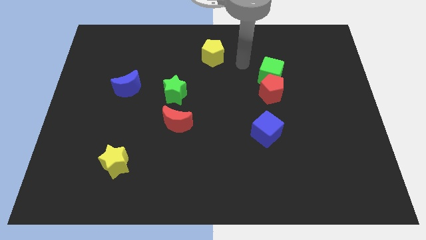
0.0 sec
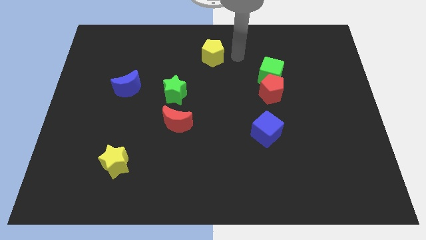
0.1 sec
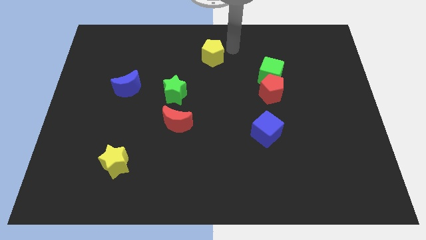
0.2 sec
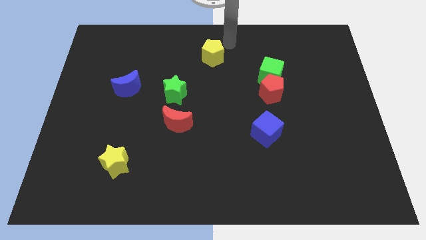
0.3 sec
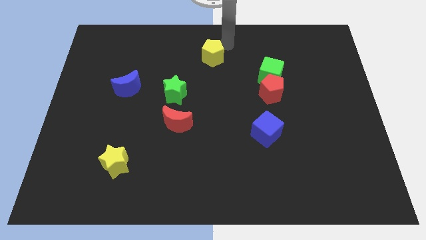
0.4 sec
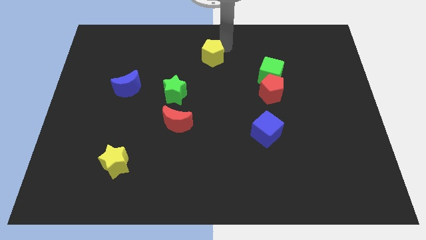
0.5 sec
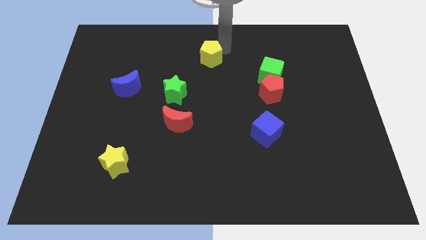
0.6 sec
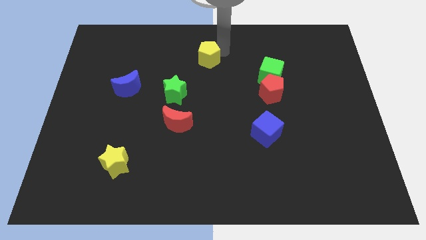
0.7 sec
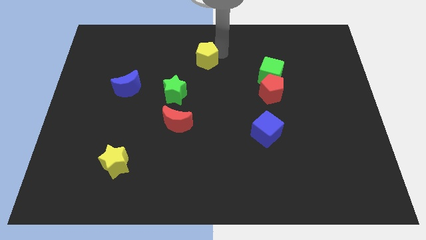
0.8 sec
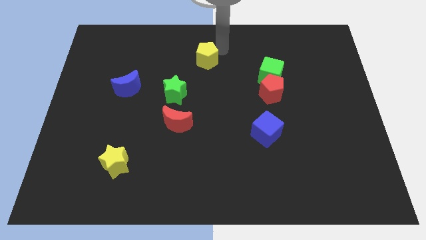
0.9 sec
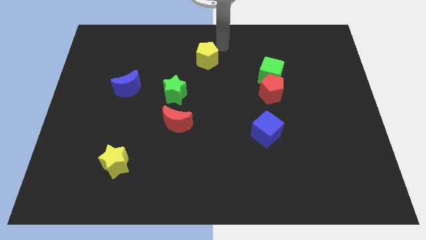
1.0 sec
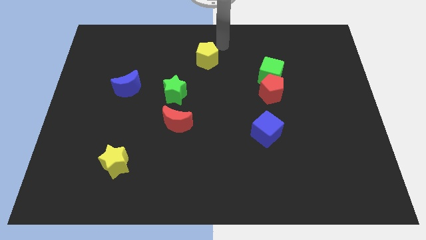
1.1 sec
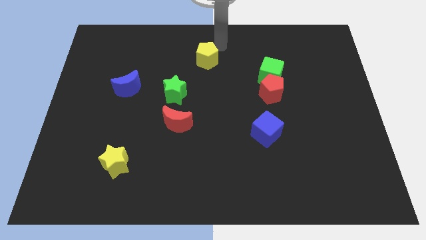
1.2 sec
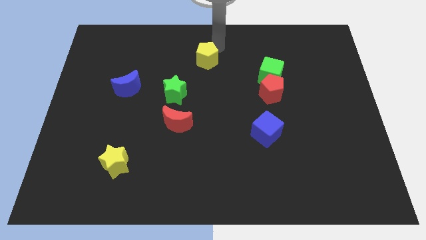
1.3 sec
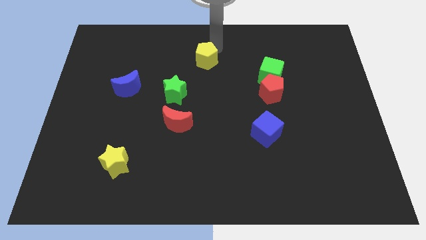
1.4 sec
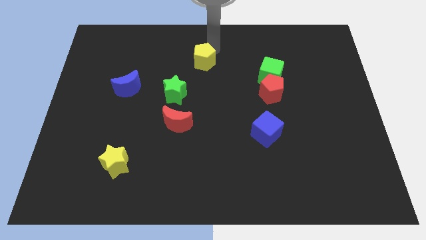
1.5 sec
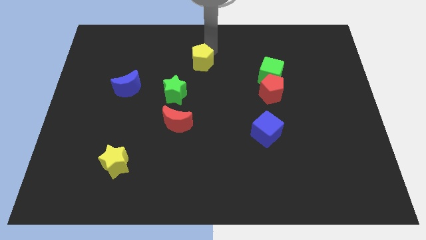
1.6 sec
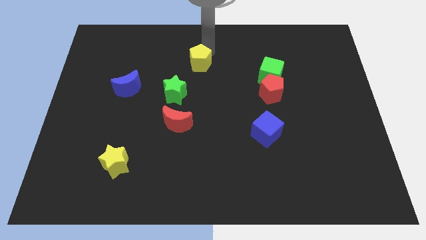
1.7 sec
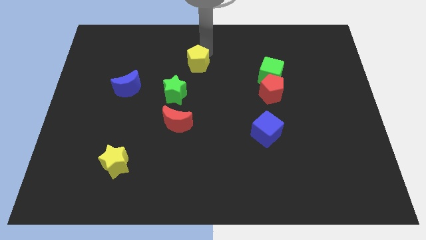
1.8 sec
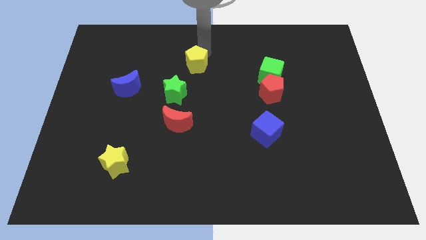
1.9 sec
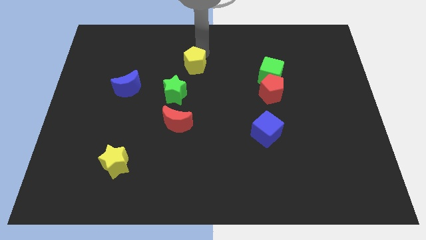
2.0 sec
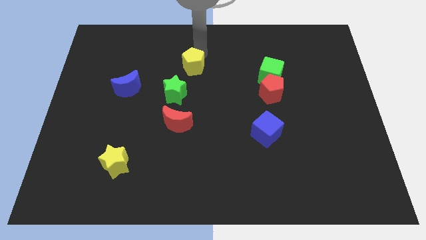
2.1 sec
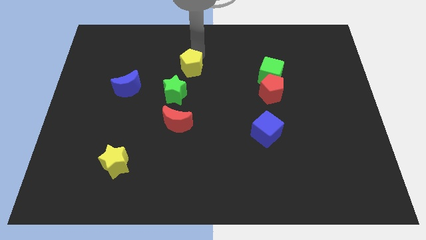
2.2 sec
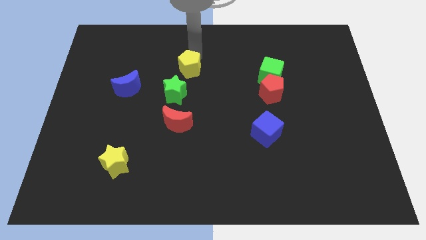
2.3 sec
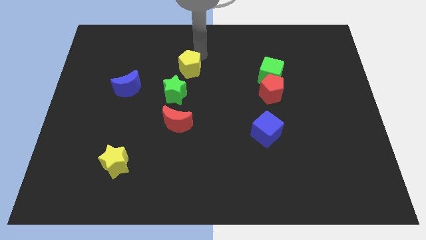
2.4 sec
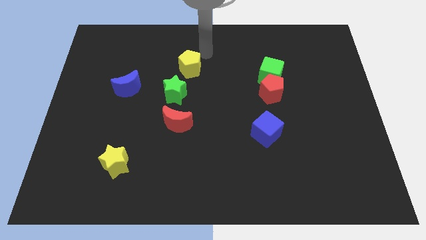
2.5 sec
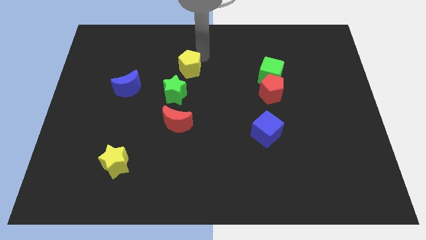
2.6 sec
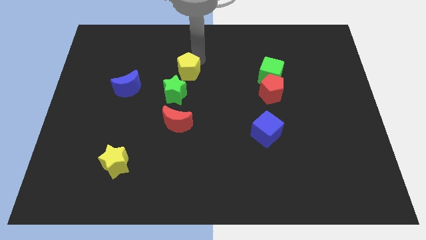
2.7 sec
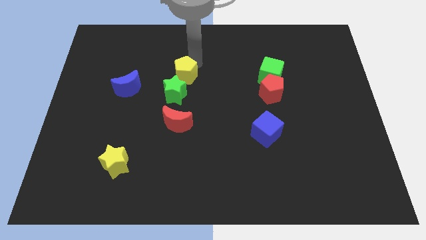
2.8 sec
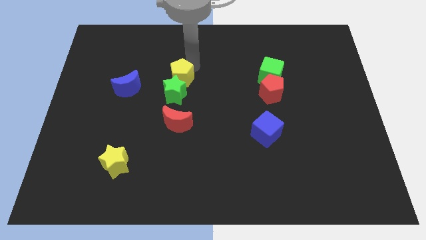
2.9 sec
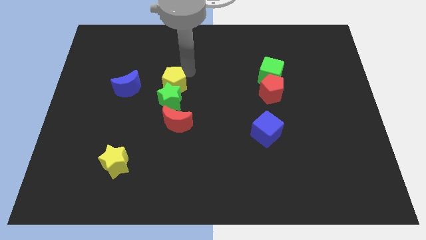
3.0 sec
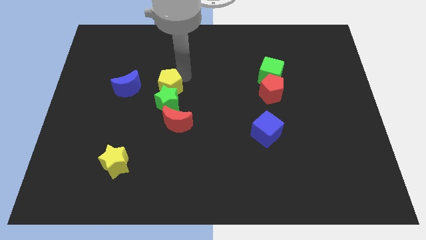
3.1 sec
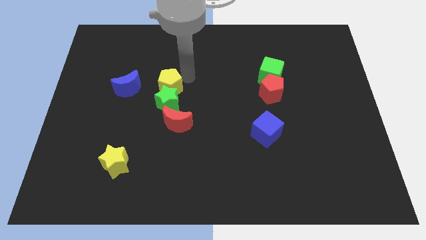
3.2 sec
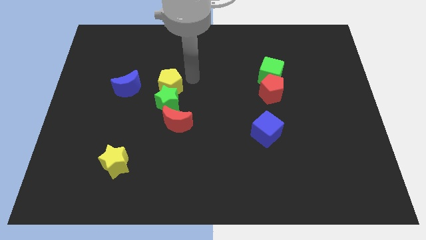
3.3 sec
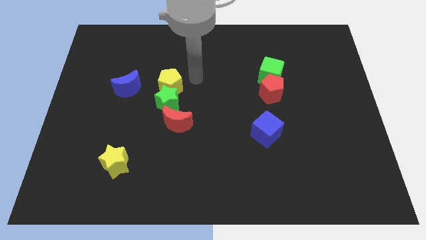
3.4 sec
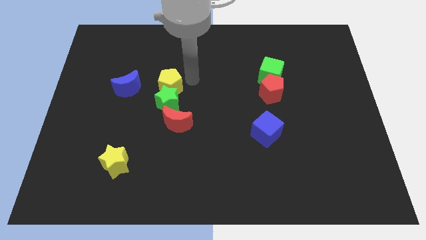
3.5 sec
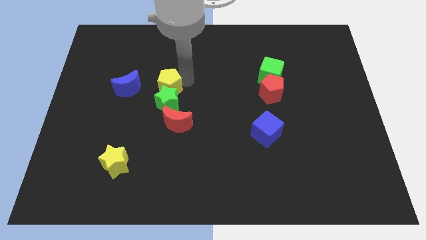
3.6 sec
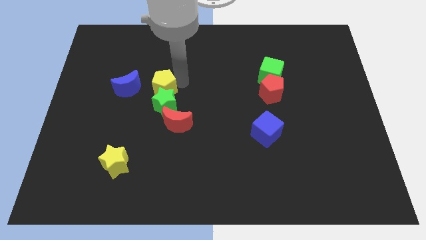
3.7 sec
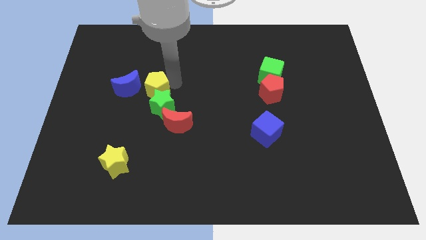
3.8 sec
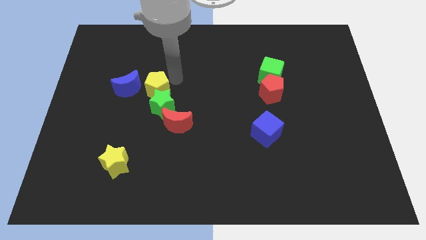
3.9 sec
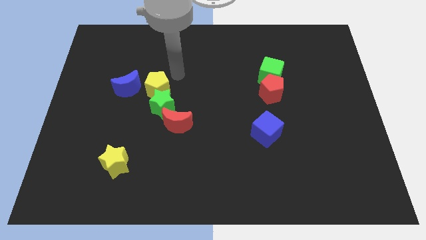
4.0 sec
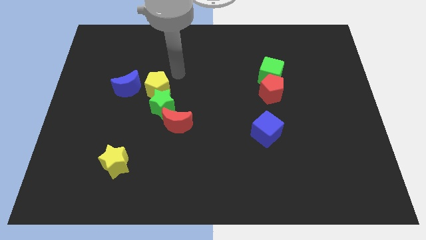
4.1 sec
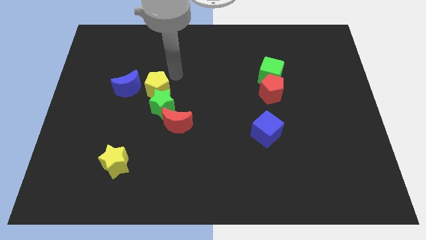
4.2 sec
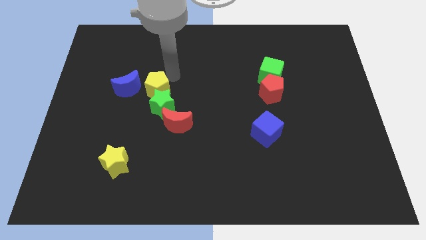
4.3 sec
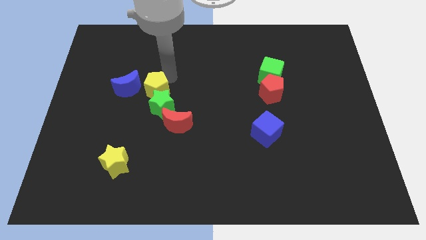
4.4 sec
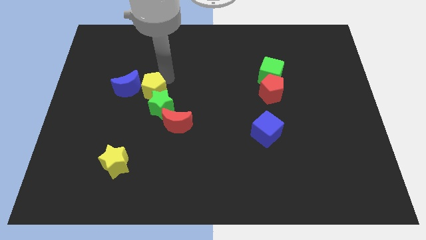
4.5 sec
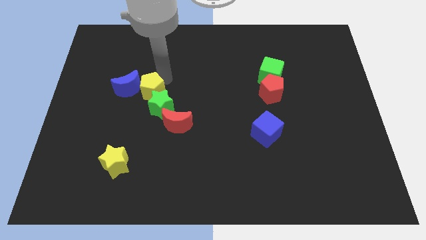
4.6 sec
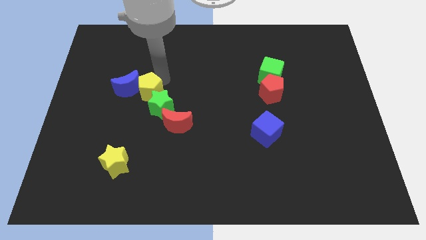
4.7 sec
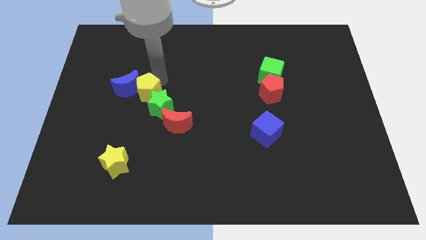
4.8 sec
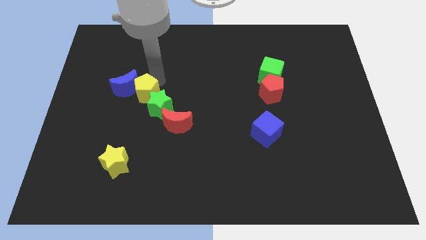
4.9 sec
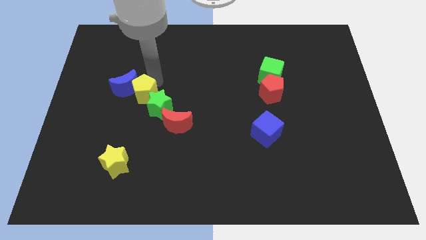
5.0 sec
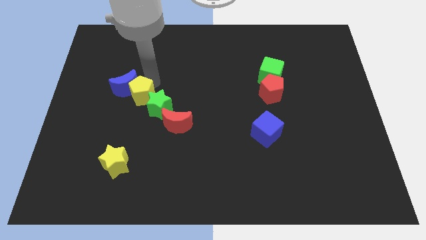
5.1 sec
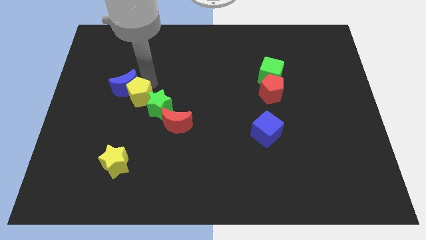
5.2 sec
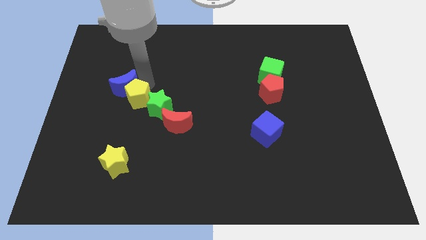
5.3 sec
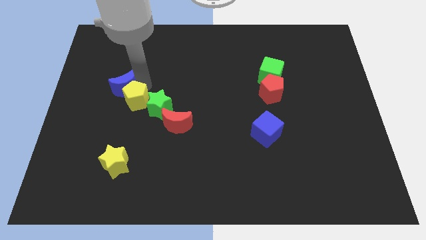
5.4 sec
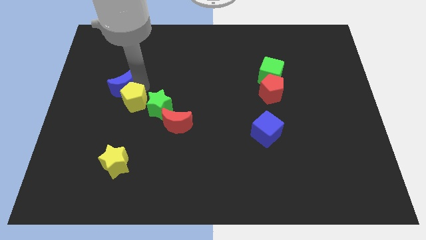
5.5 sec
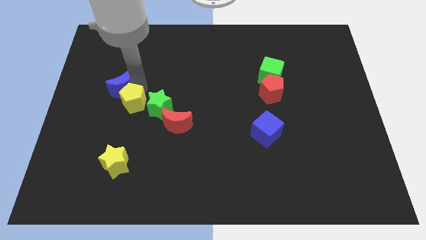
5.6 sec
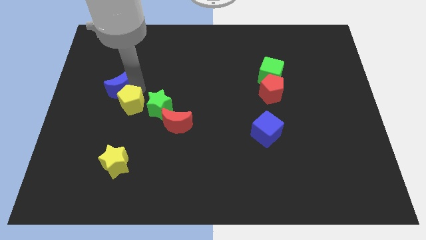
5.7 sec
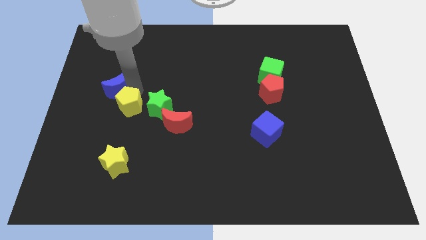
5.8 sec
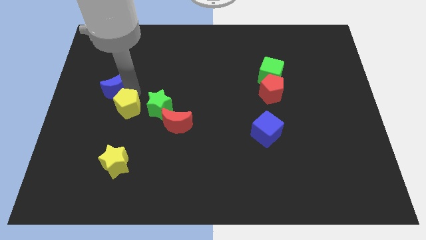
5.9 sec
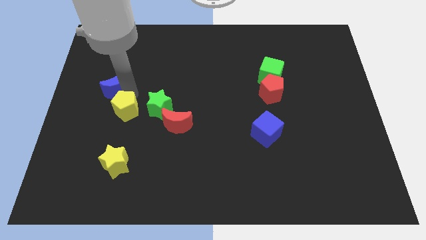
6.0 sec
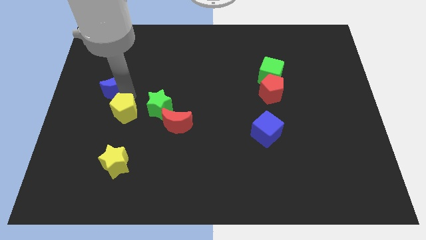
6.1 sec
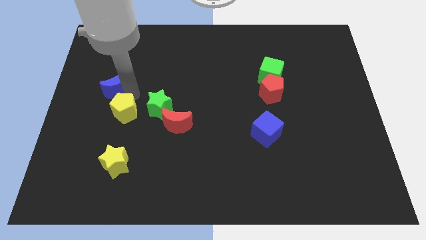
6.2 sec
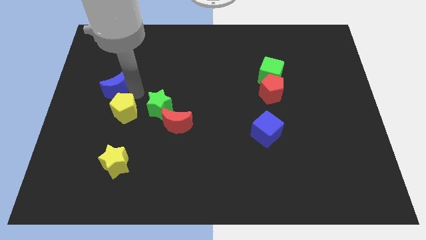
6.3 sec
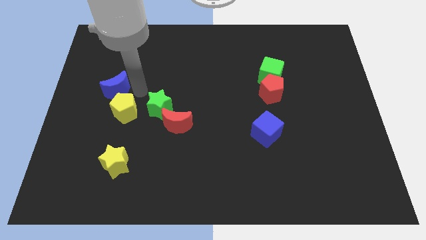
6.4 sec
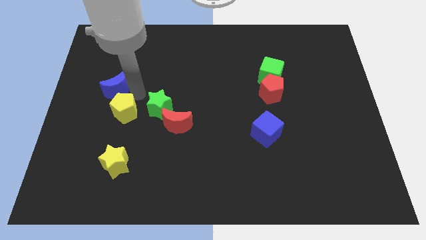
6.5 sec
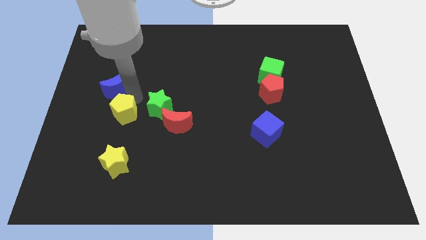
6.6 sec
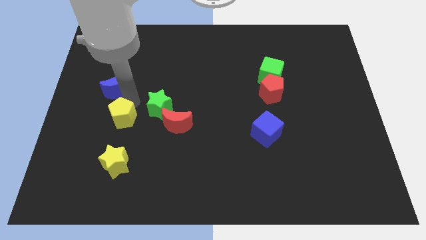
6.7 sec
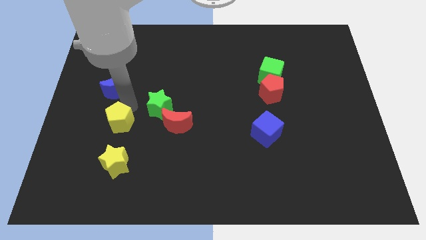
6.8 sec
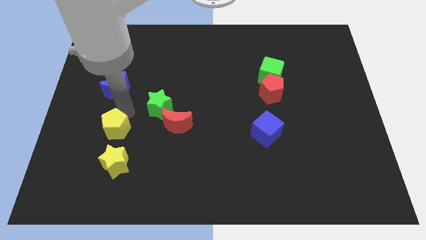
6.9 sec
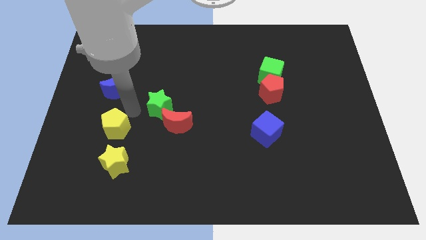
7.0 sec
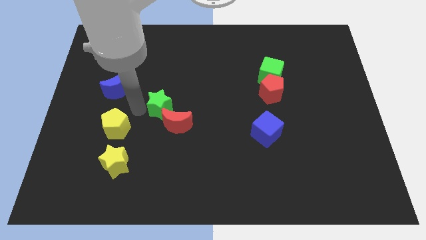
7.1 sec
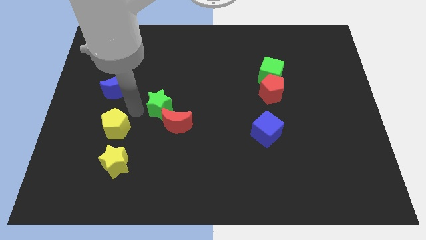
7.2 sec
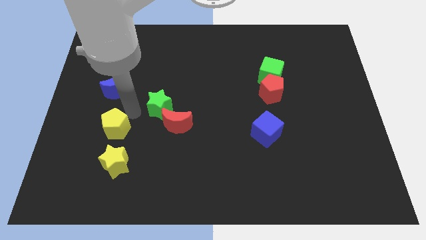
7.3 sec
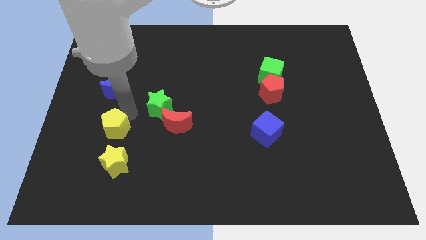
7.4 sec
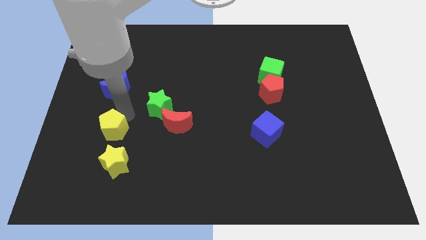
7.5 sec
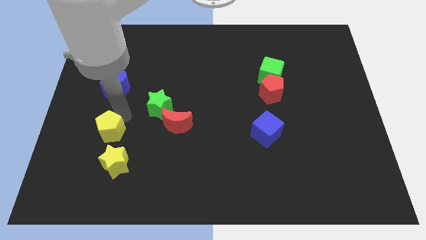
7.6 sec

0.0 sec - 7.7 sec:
push the yellow pentagon to the top left of the yellow star
